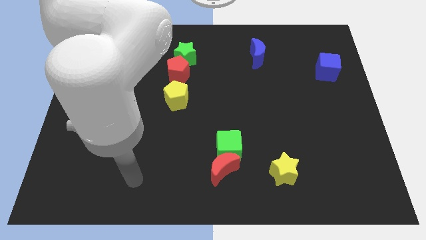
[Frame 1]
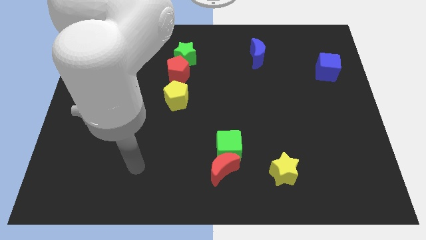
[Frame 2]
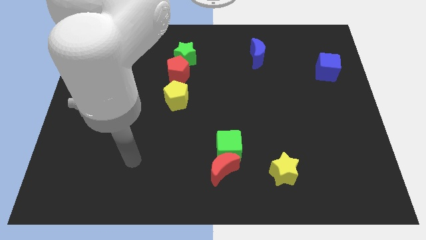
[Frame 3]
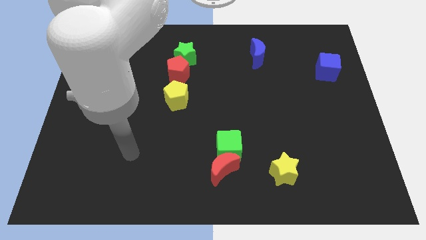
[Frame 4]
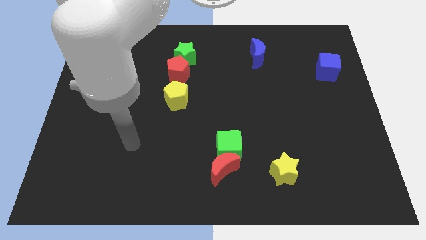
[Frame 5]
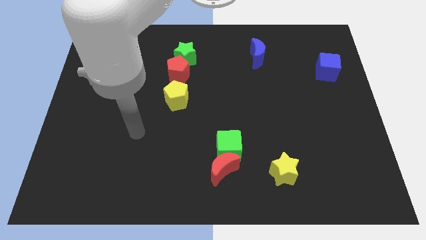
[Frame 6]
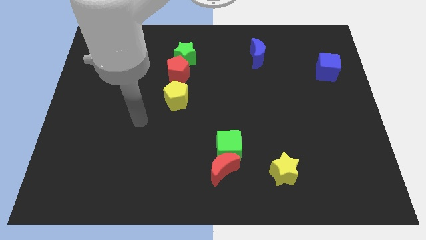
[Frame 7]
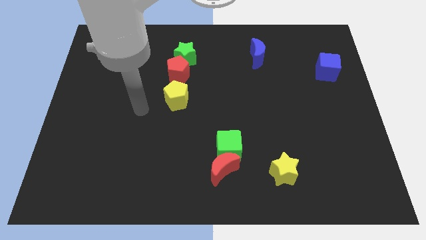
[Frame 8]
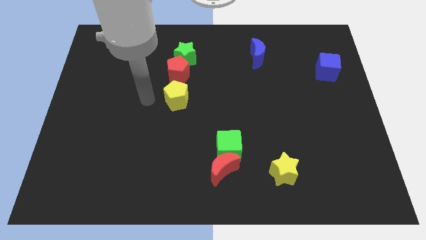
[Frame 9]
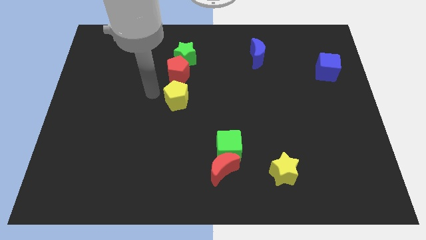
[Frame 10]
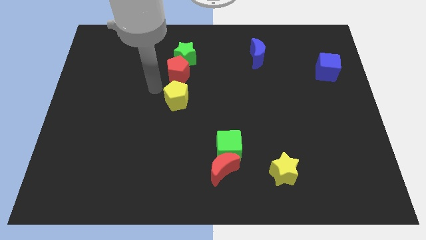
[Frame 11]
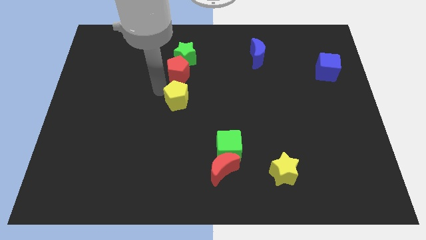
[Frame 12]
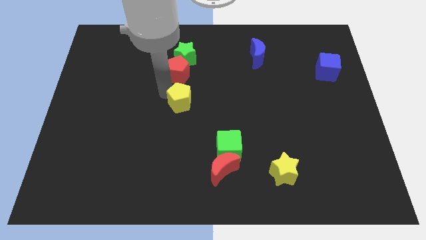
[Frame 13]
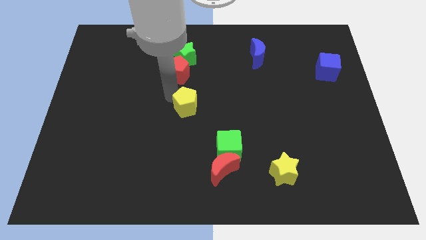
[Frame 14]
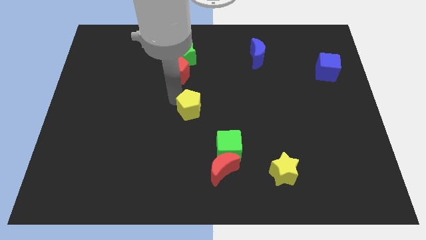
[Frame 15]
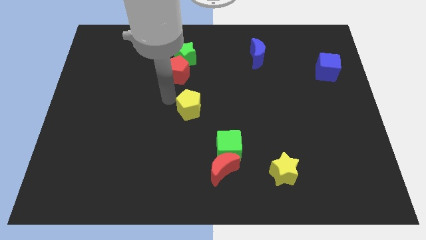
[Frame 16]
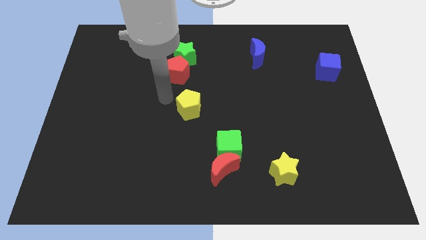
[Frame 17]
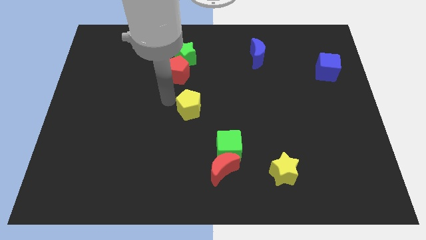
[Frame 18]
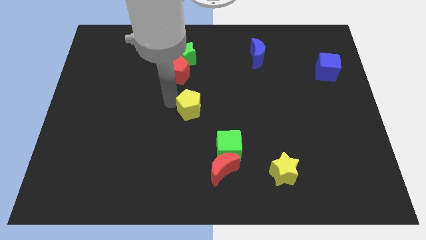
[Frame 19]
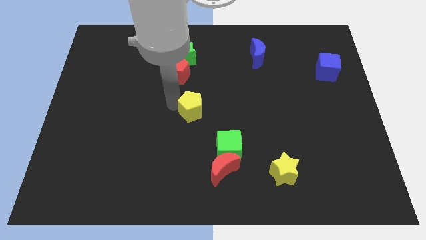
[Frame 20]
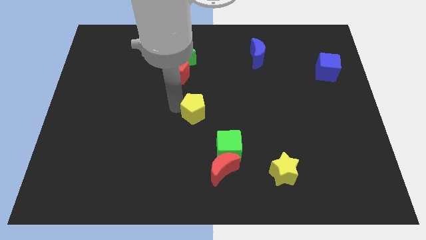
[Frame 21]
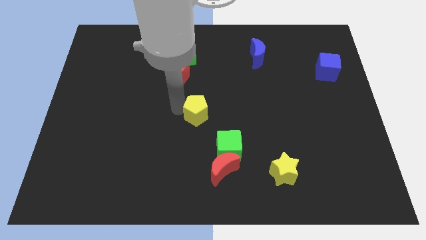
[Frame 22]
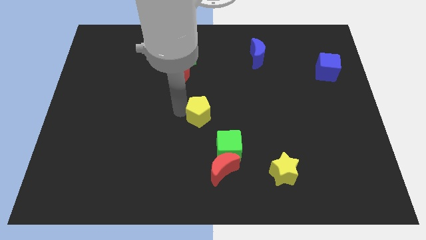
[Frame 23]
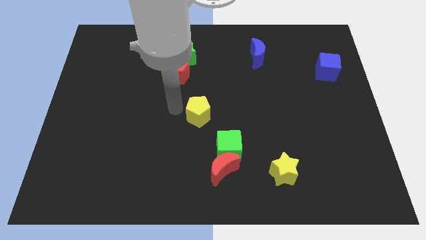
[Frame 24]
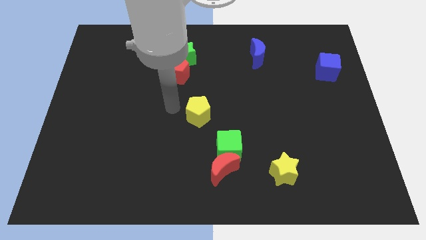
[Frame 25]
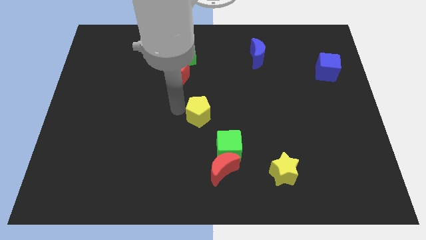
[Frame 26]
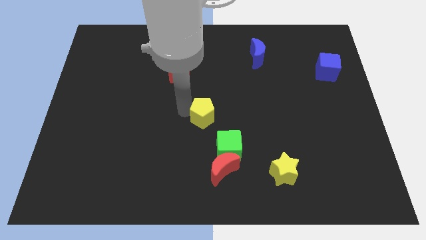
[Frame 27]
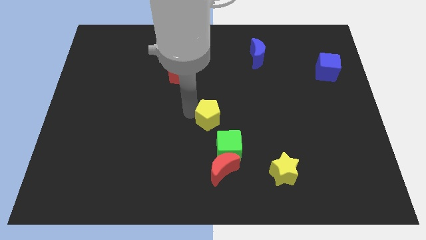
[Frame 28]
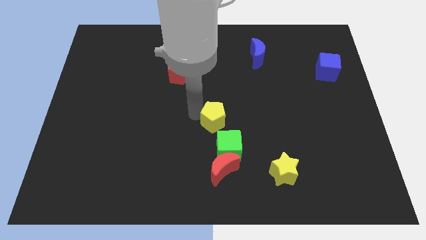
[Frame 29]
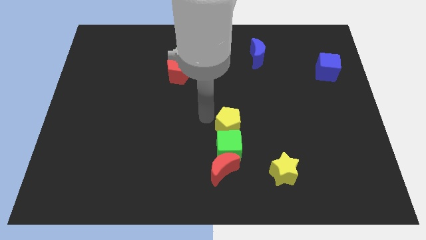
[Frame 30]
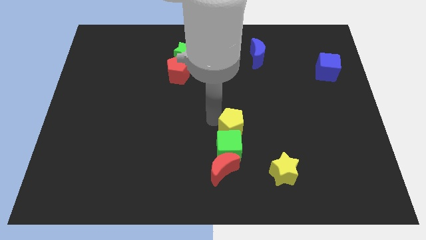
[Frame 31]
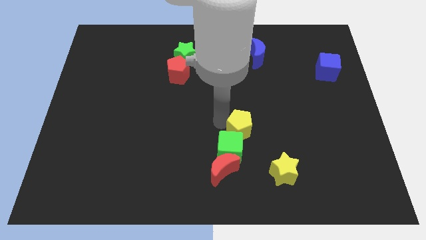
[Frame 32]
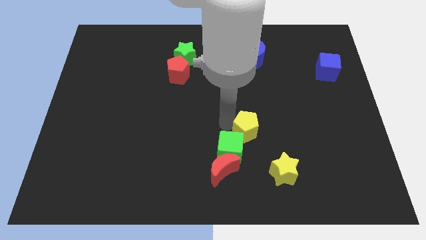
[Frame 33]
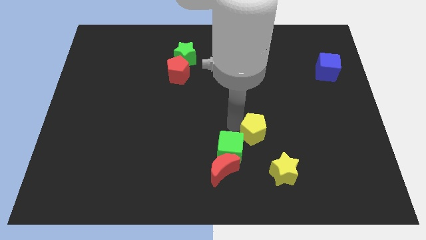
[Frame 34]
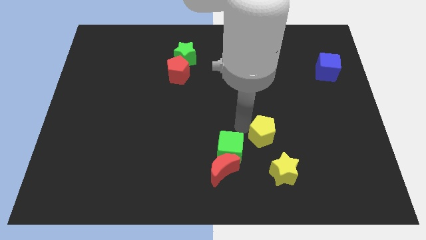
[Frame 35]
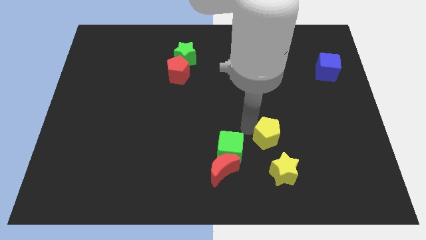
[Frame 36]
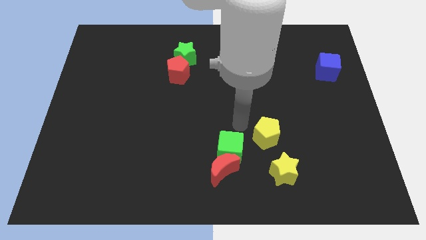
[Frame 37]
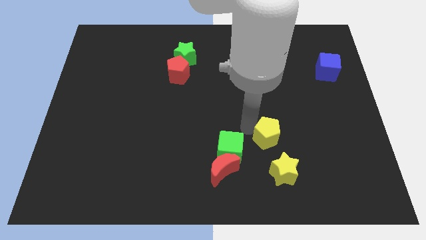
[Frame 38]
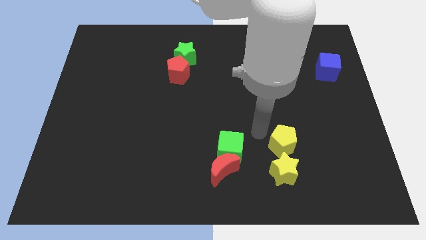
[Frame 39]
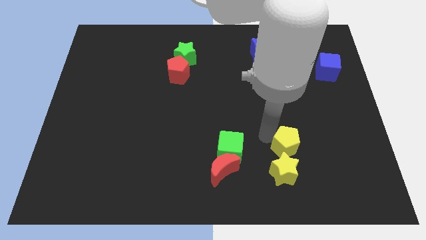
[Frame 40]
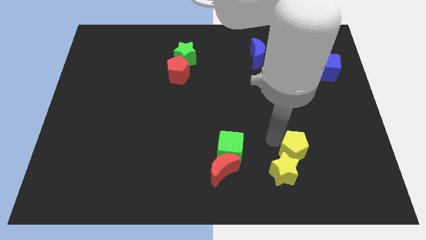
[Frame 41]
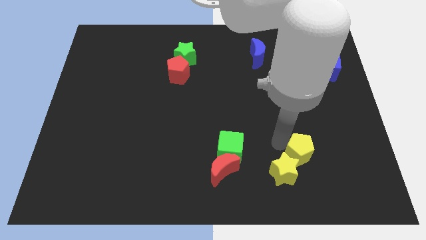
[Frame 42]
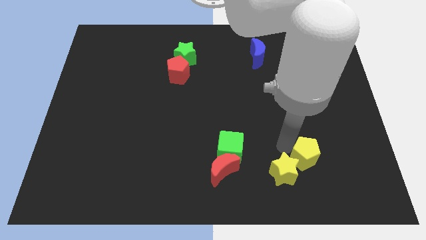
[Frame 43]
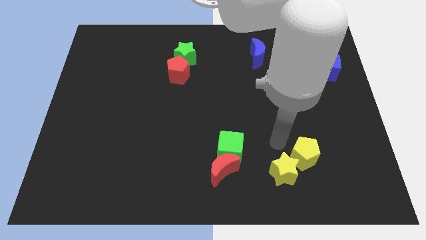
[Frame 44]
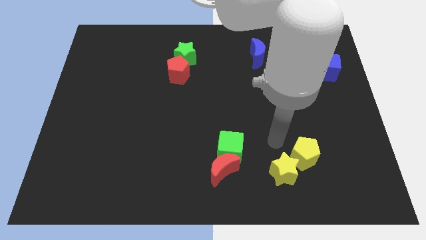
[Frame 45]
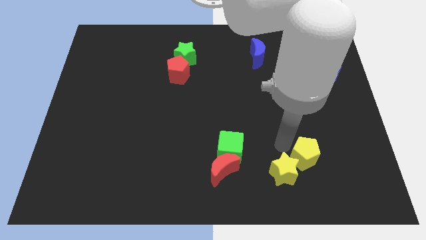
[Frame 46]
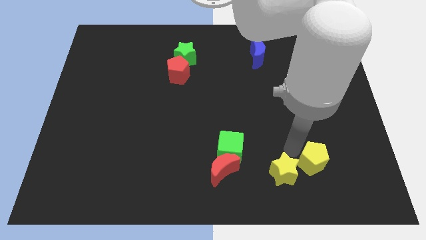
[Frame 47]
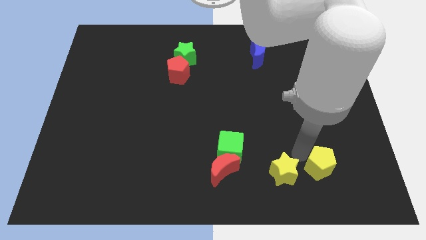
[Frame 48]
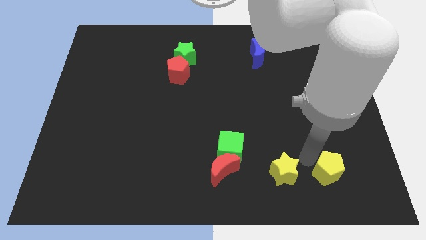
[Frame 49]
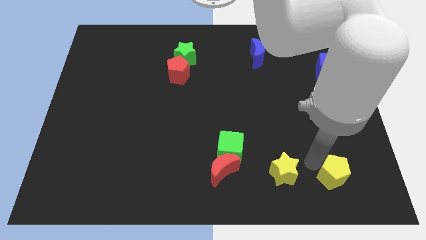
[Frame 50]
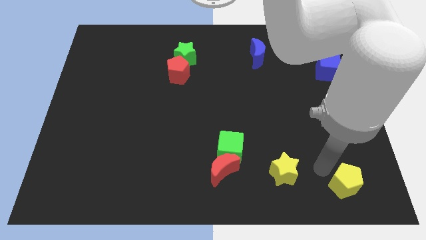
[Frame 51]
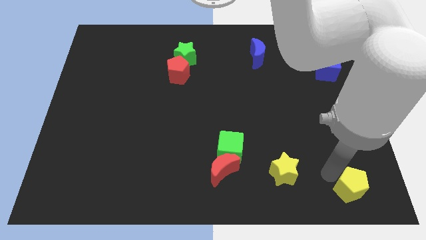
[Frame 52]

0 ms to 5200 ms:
slide the yellow pentagon to the bottom right corner

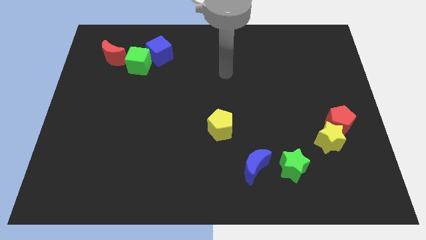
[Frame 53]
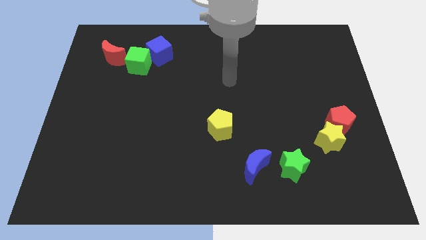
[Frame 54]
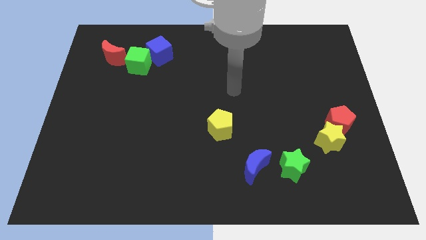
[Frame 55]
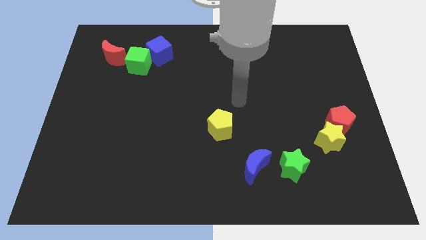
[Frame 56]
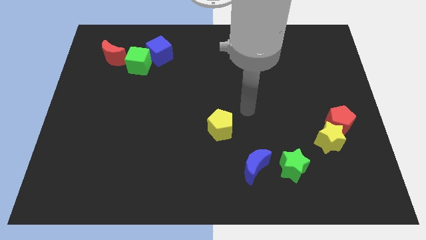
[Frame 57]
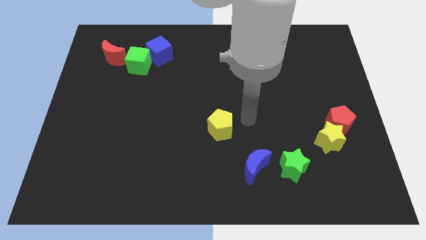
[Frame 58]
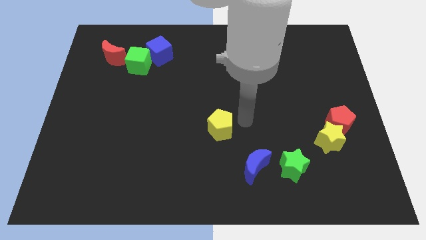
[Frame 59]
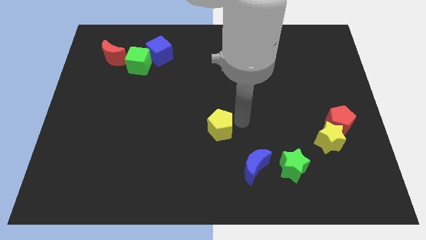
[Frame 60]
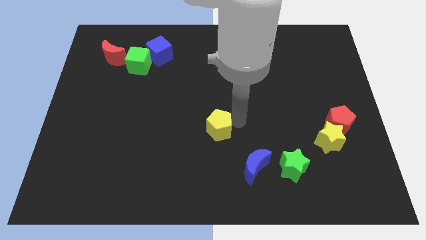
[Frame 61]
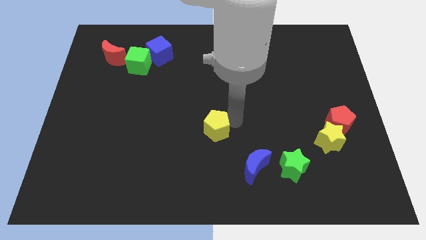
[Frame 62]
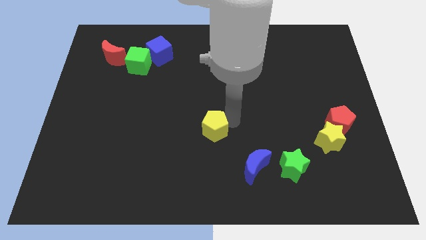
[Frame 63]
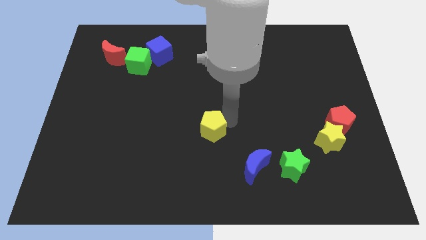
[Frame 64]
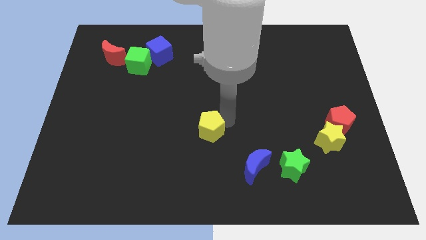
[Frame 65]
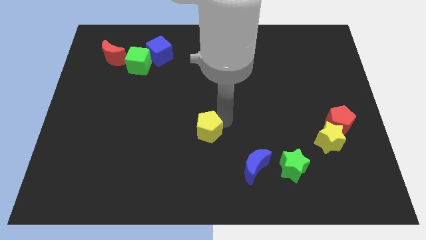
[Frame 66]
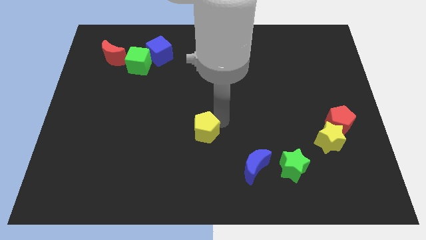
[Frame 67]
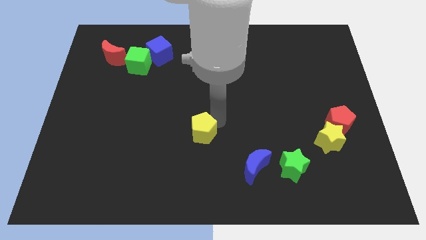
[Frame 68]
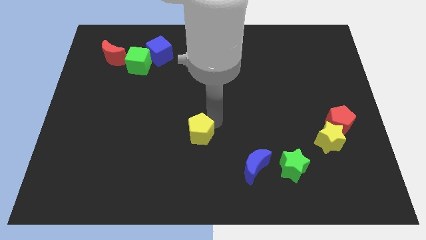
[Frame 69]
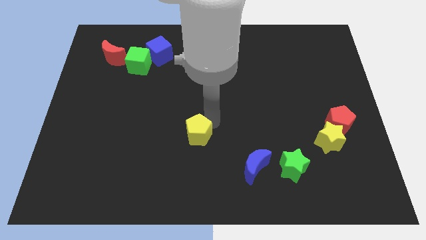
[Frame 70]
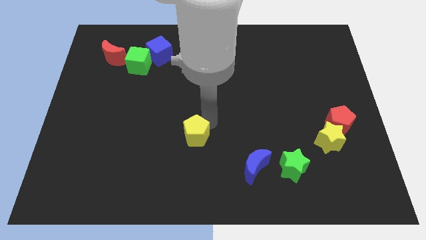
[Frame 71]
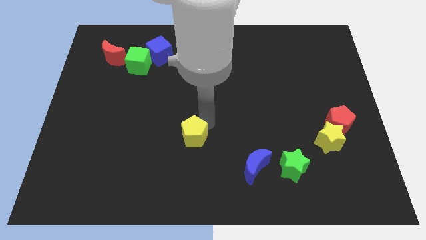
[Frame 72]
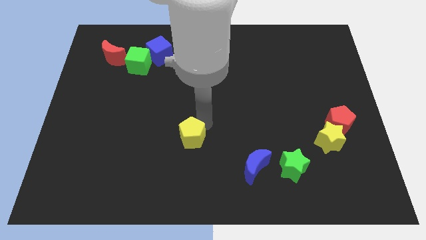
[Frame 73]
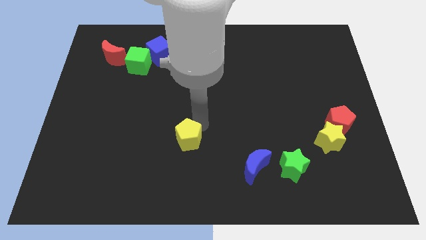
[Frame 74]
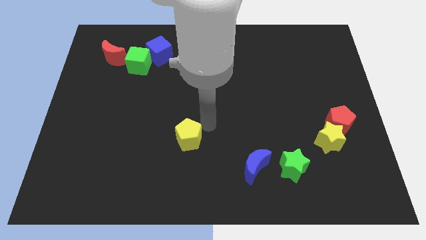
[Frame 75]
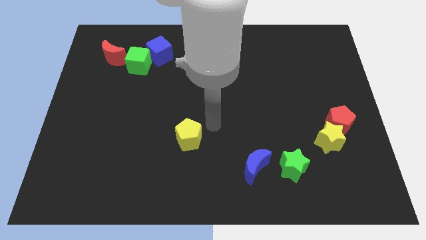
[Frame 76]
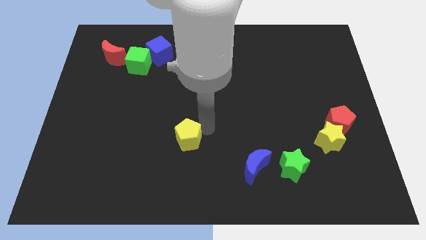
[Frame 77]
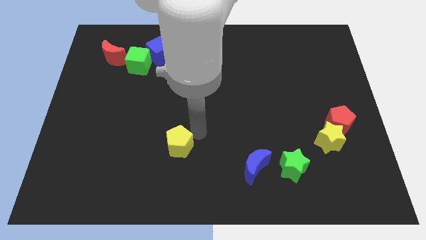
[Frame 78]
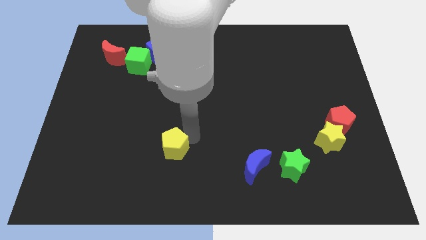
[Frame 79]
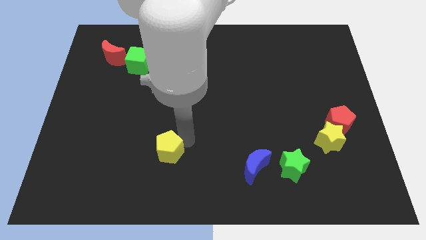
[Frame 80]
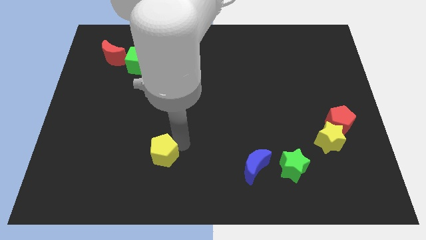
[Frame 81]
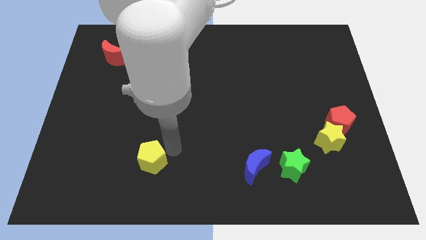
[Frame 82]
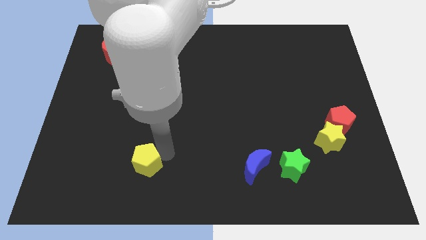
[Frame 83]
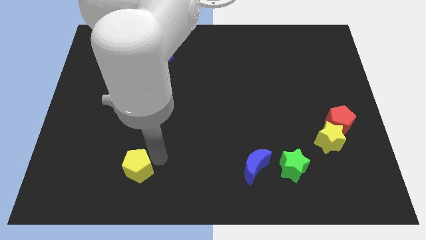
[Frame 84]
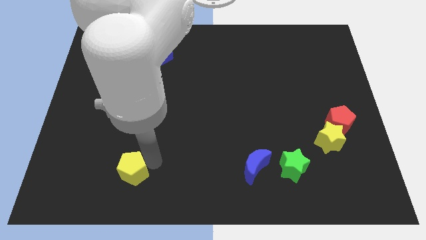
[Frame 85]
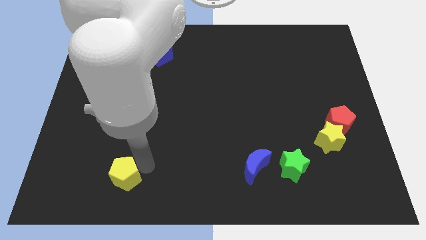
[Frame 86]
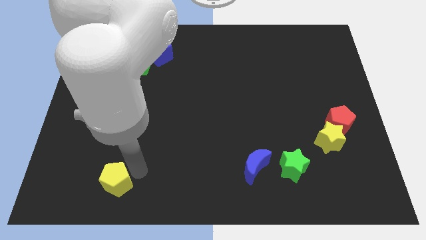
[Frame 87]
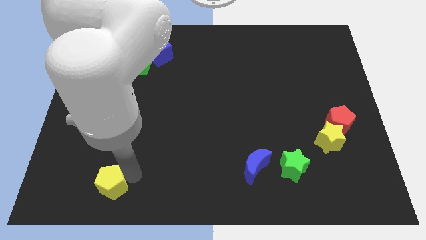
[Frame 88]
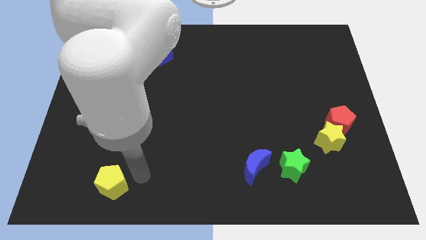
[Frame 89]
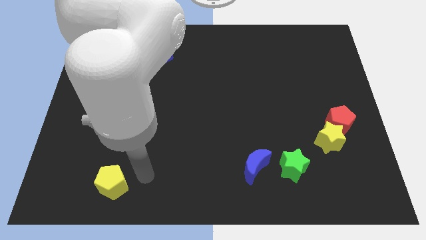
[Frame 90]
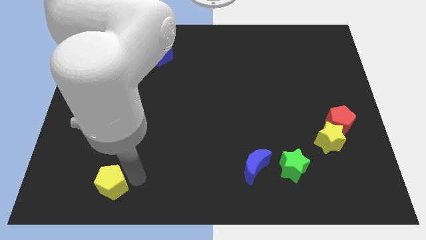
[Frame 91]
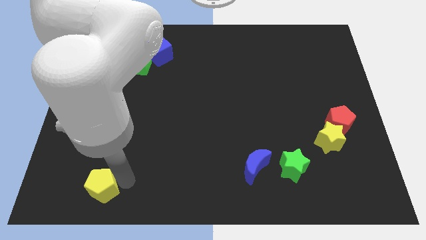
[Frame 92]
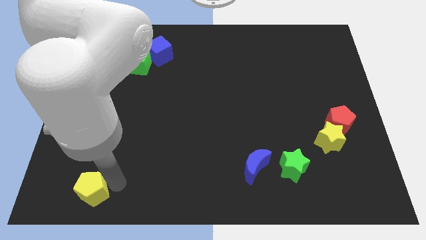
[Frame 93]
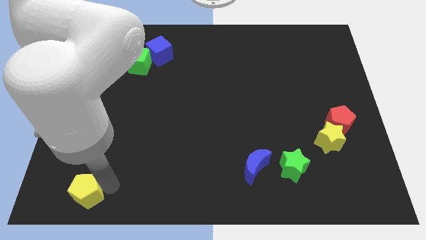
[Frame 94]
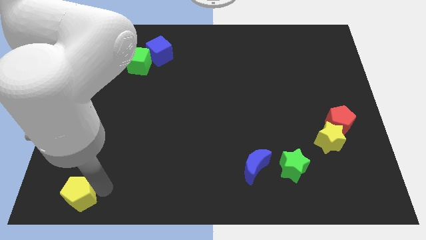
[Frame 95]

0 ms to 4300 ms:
put the yellow pentagon to the bottom left corner
